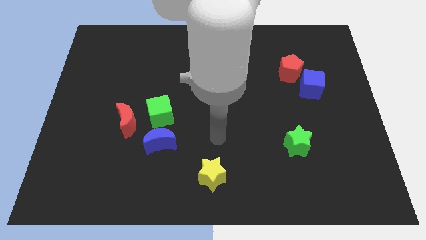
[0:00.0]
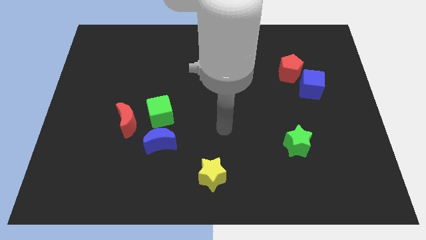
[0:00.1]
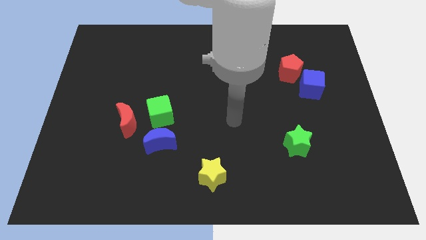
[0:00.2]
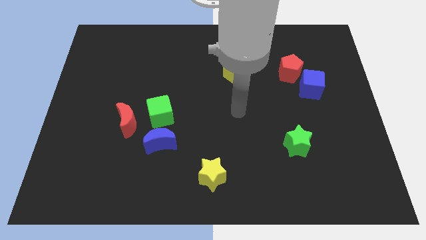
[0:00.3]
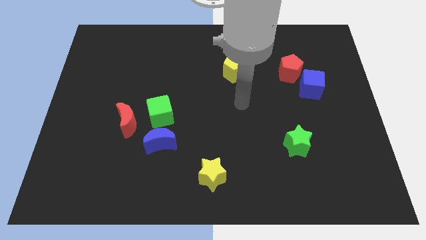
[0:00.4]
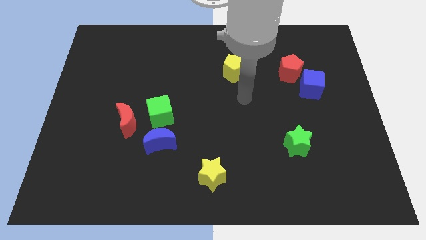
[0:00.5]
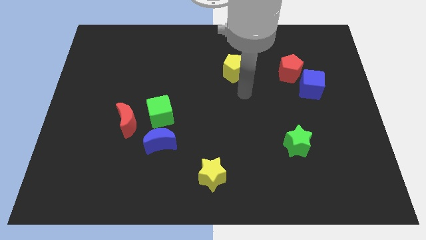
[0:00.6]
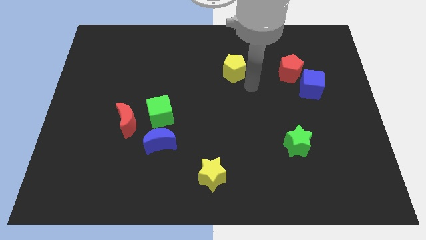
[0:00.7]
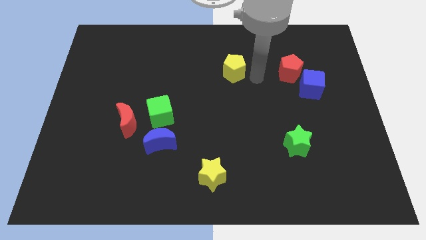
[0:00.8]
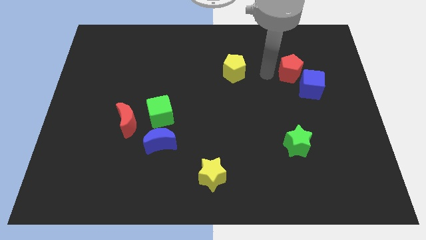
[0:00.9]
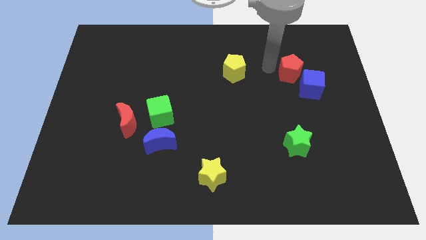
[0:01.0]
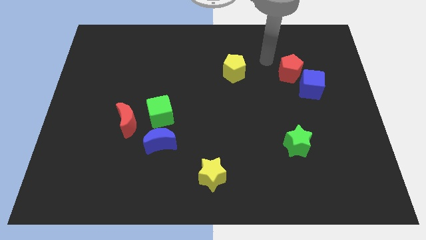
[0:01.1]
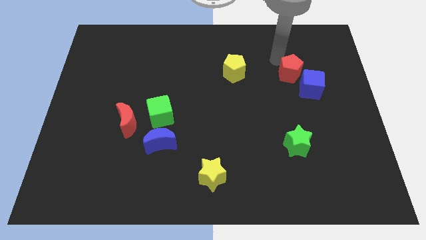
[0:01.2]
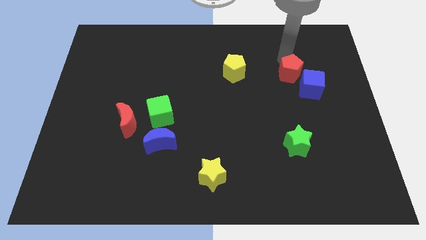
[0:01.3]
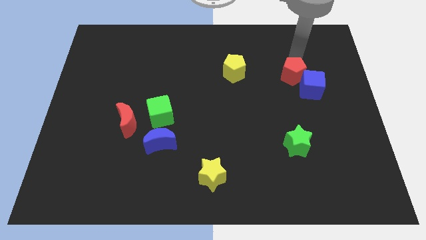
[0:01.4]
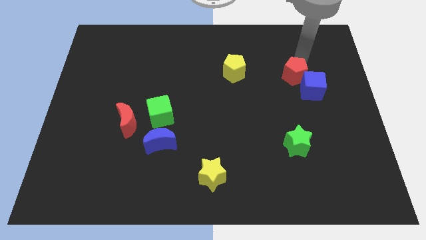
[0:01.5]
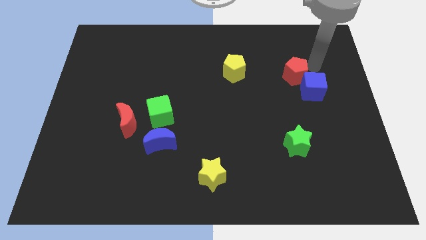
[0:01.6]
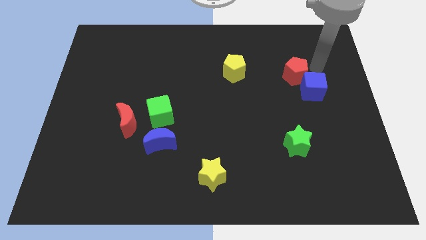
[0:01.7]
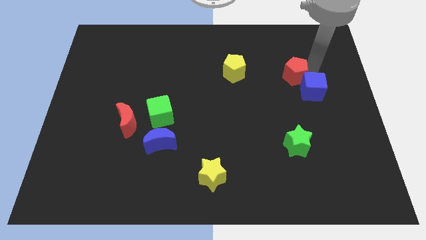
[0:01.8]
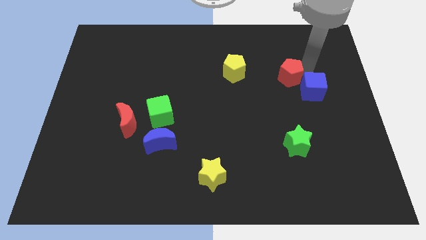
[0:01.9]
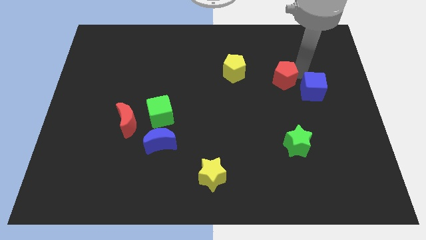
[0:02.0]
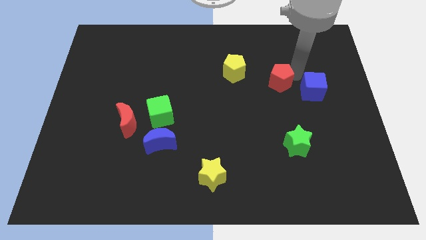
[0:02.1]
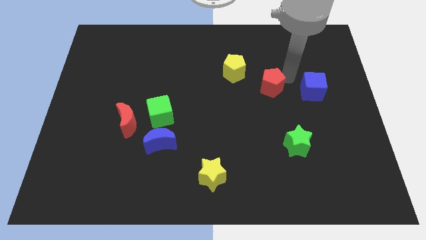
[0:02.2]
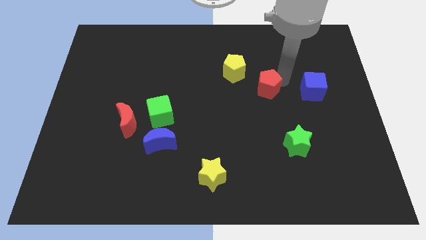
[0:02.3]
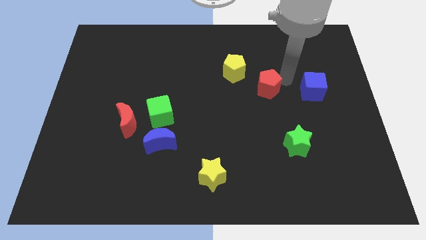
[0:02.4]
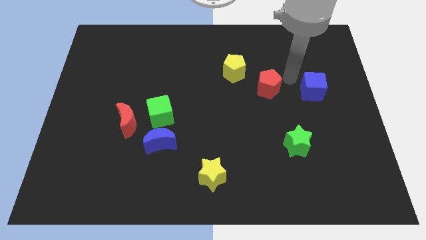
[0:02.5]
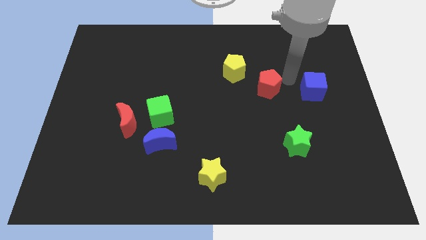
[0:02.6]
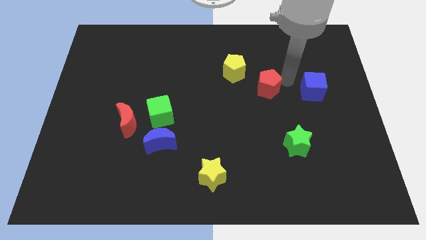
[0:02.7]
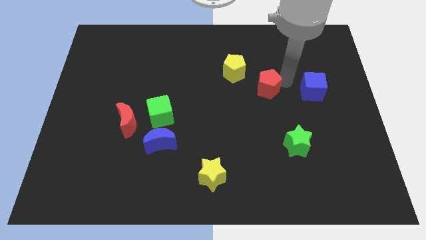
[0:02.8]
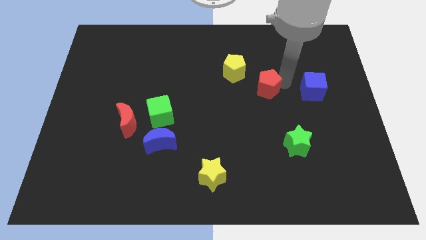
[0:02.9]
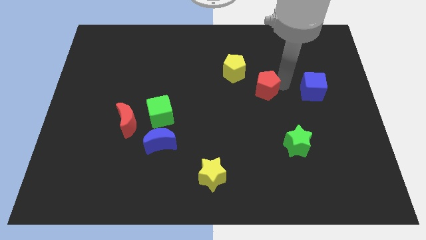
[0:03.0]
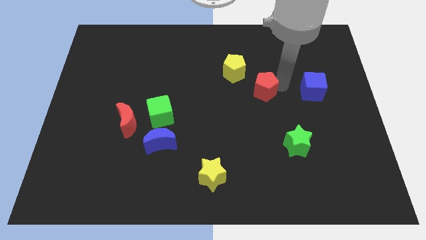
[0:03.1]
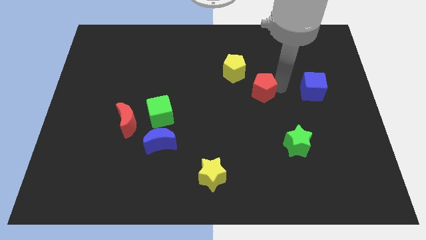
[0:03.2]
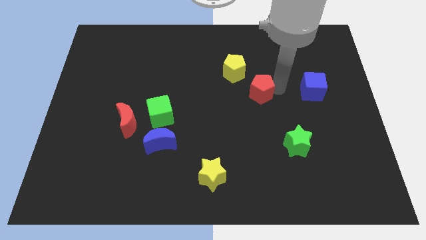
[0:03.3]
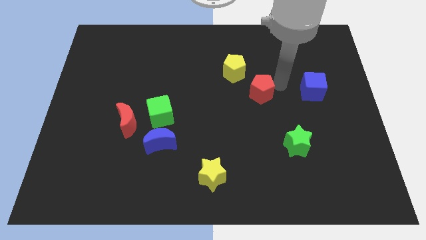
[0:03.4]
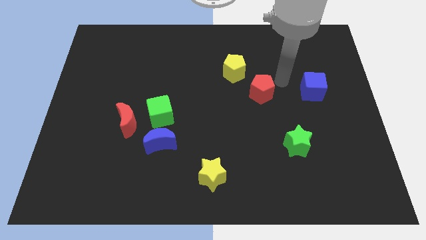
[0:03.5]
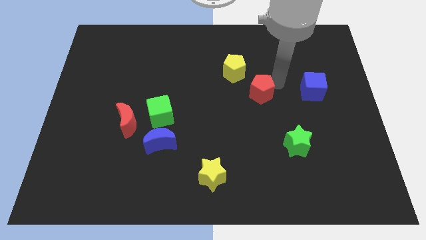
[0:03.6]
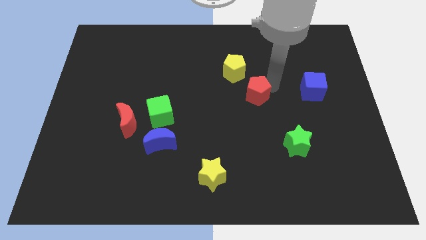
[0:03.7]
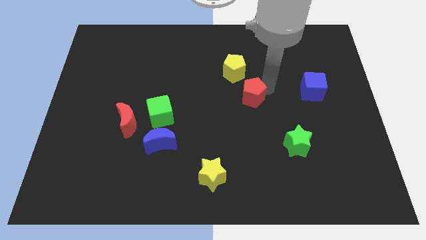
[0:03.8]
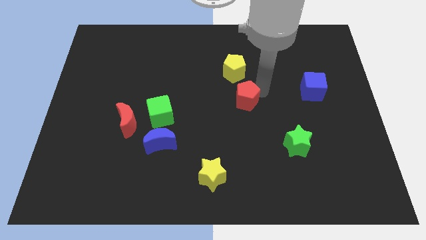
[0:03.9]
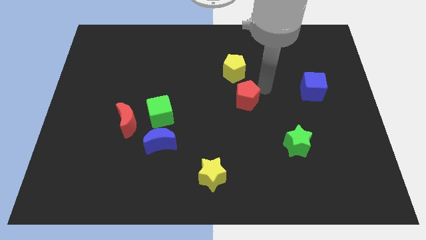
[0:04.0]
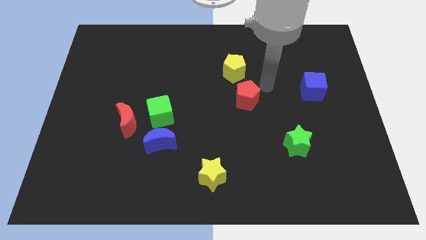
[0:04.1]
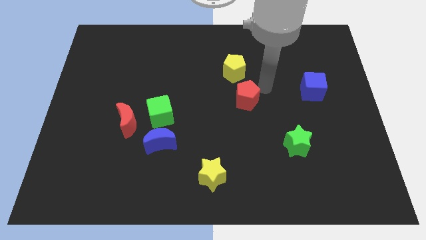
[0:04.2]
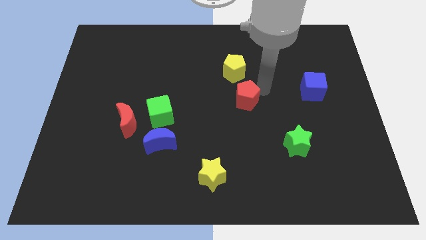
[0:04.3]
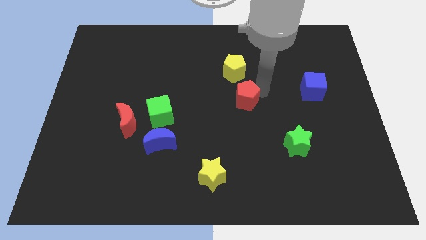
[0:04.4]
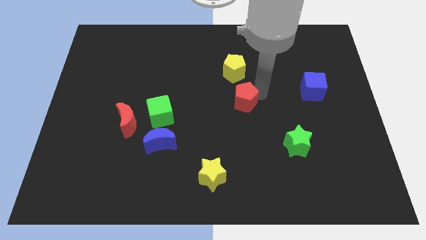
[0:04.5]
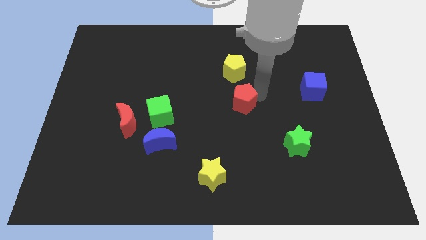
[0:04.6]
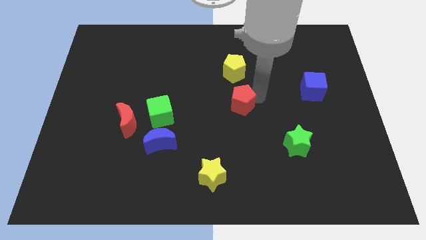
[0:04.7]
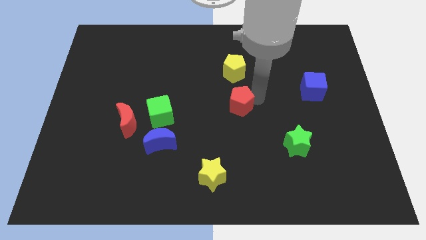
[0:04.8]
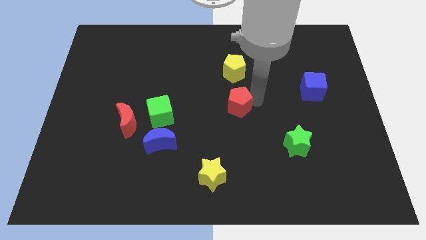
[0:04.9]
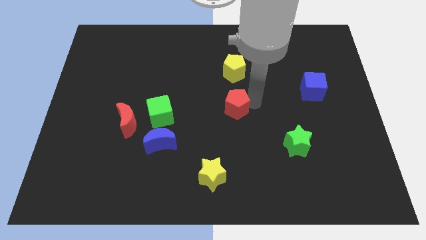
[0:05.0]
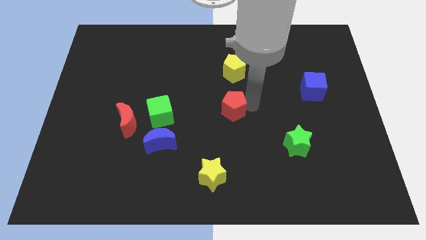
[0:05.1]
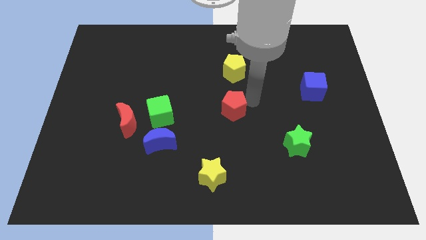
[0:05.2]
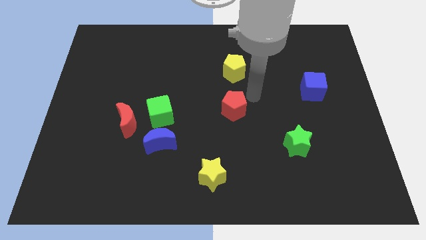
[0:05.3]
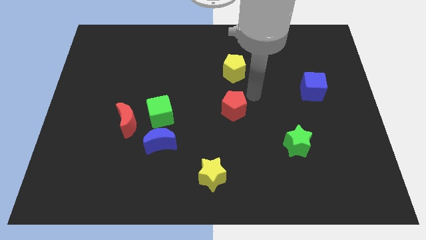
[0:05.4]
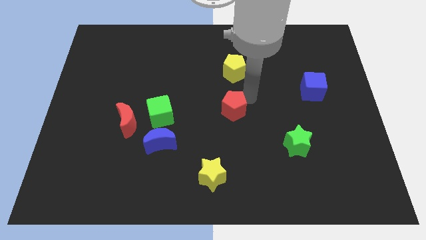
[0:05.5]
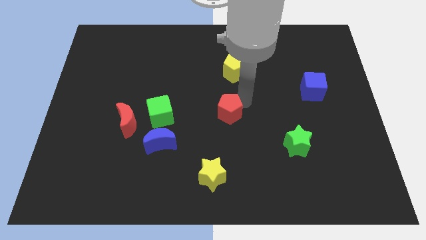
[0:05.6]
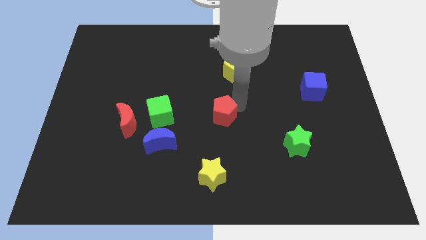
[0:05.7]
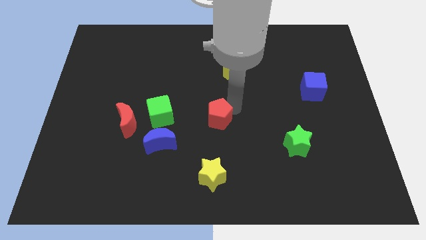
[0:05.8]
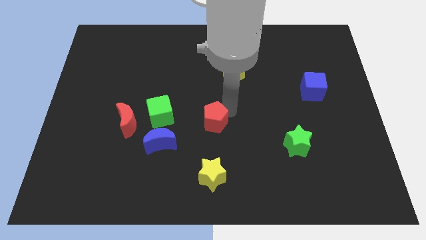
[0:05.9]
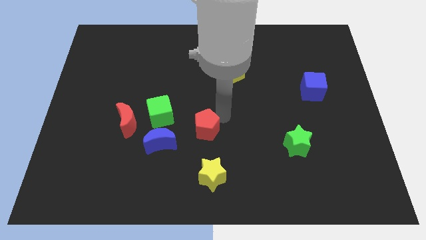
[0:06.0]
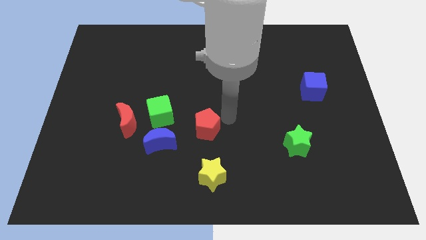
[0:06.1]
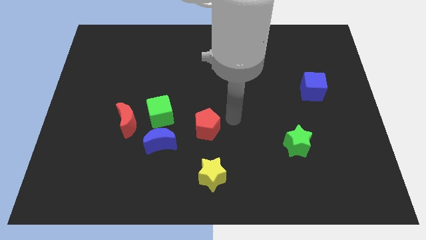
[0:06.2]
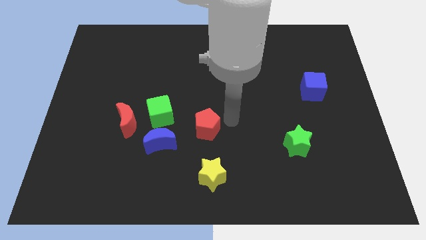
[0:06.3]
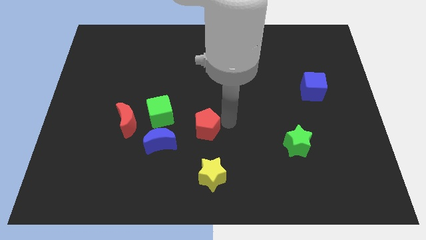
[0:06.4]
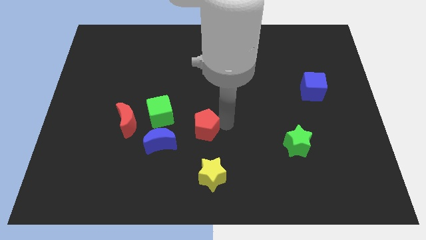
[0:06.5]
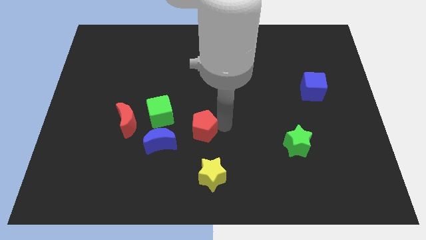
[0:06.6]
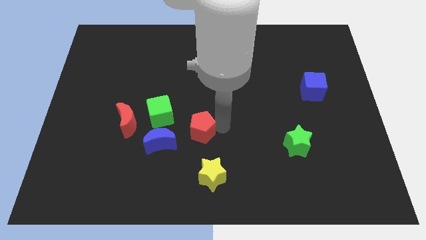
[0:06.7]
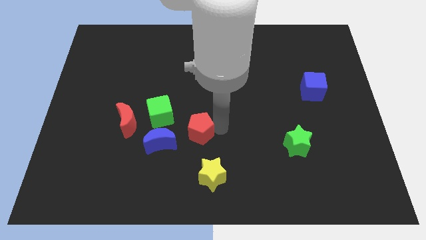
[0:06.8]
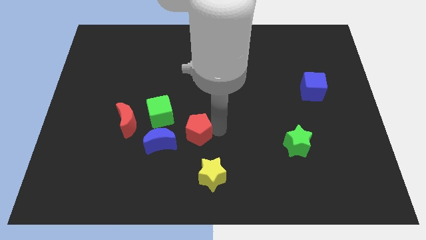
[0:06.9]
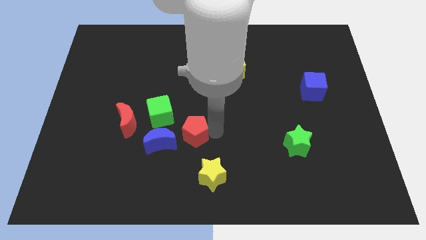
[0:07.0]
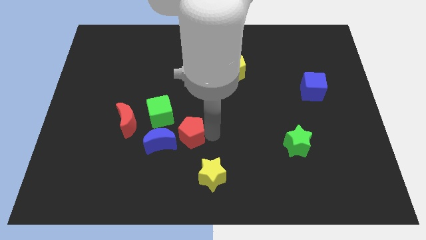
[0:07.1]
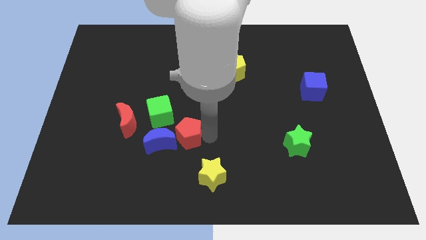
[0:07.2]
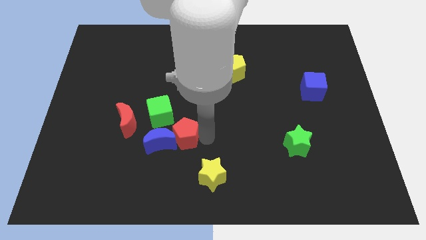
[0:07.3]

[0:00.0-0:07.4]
move the red pentagon to the blue moon
